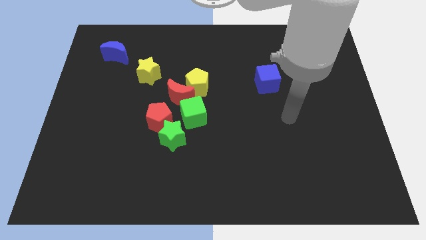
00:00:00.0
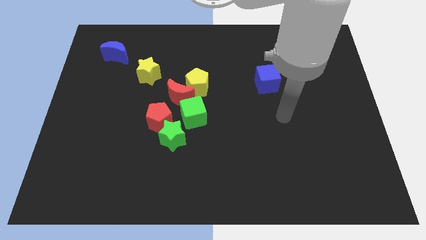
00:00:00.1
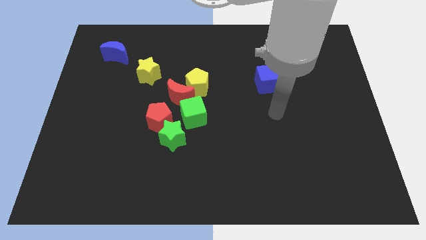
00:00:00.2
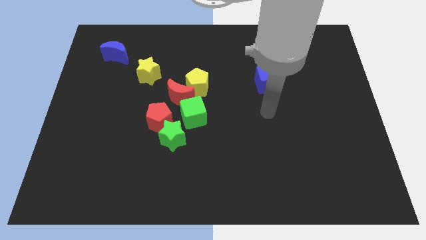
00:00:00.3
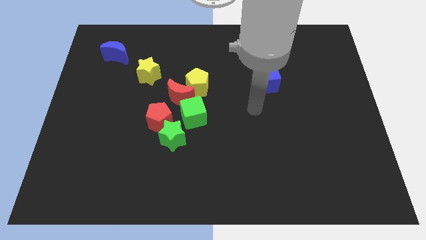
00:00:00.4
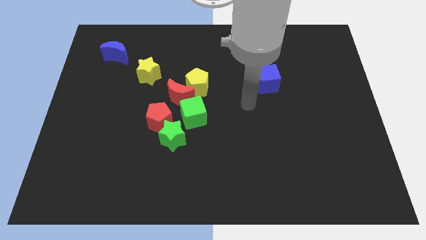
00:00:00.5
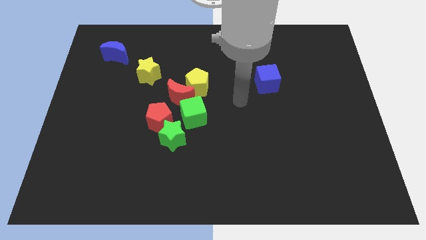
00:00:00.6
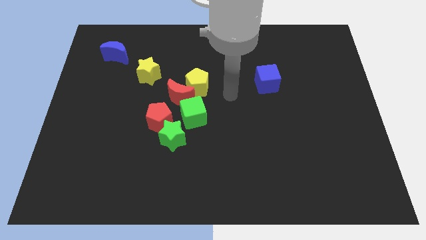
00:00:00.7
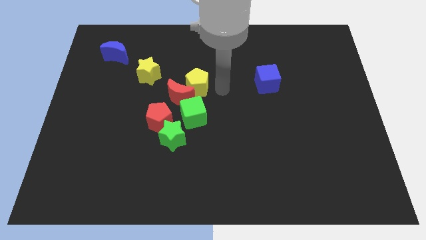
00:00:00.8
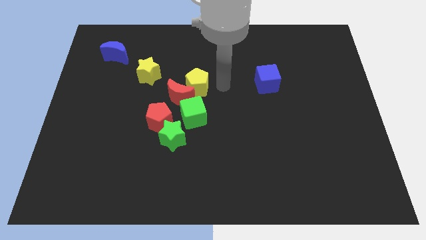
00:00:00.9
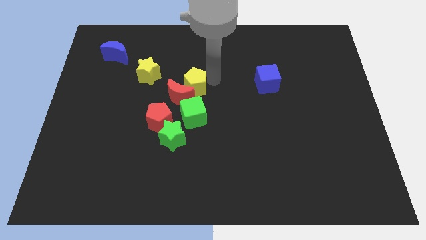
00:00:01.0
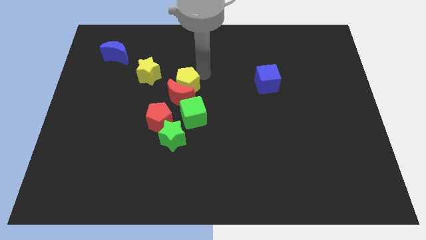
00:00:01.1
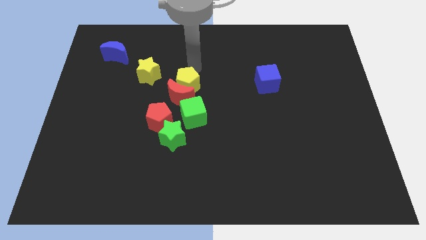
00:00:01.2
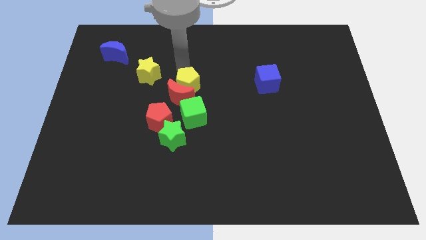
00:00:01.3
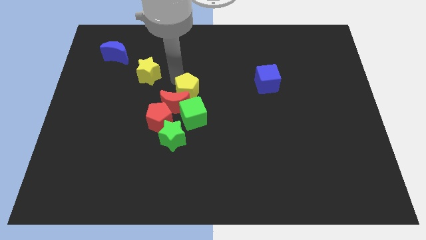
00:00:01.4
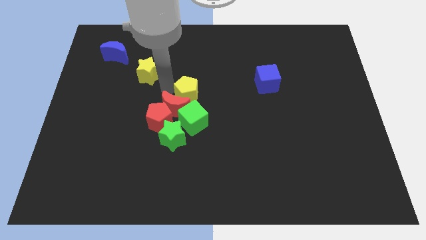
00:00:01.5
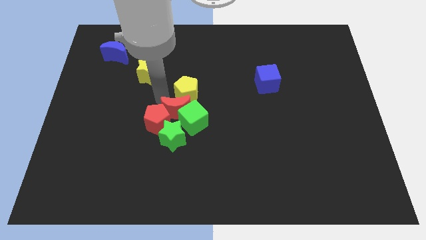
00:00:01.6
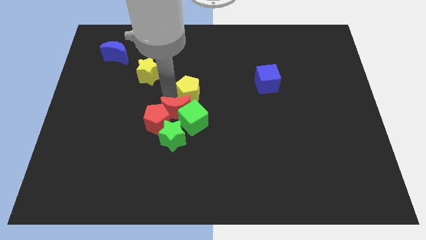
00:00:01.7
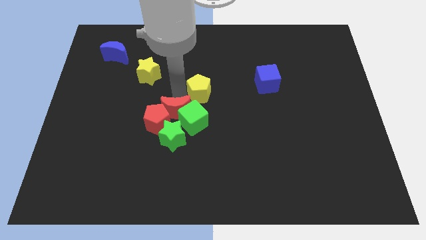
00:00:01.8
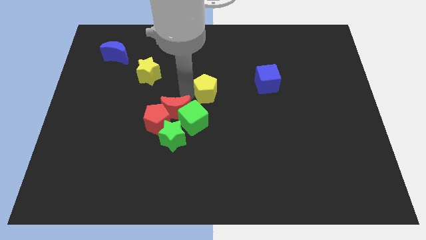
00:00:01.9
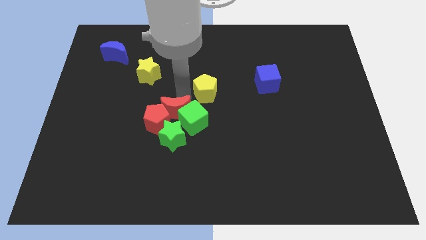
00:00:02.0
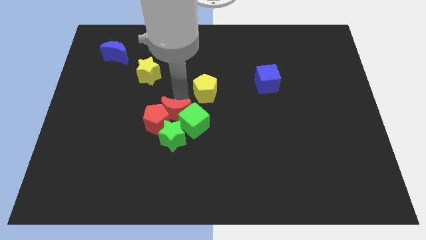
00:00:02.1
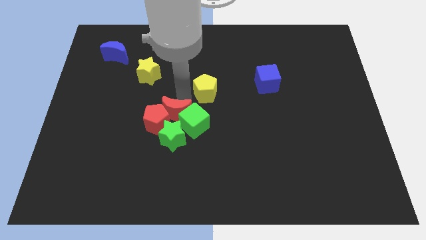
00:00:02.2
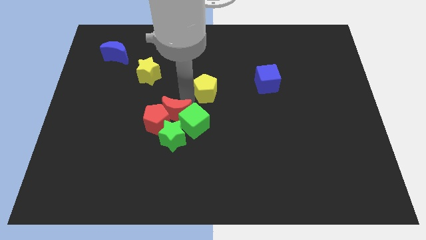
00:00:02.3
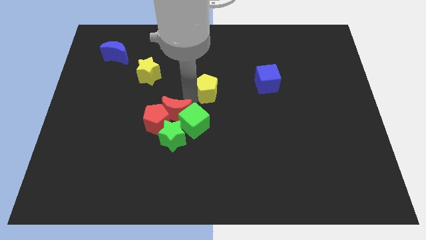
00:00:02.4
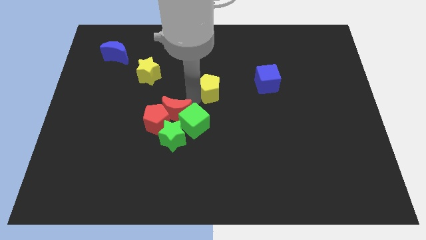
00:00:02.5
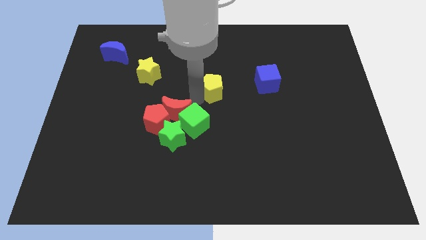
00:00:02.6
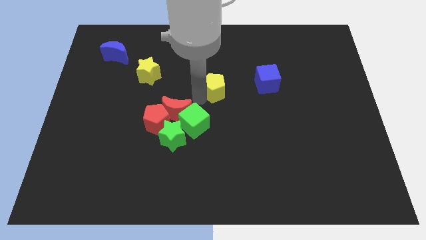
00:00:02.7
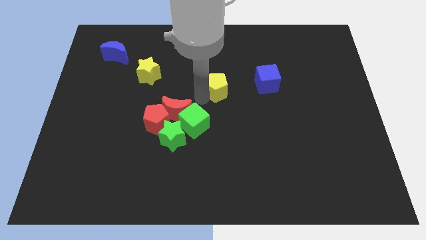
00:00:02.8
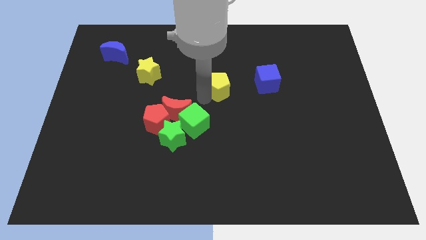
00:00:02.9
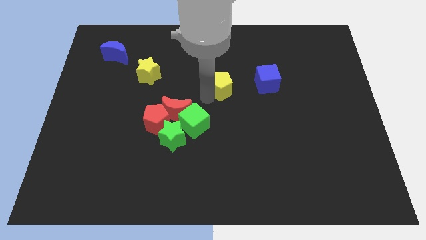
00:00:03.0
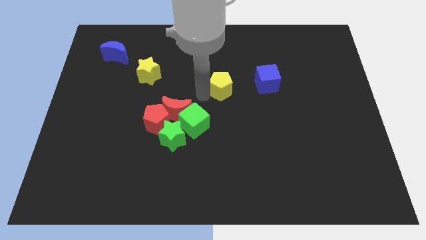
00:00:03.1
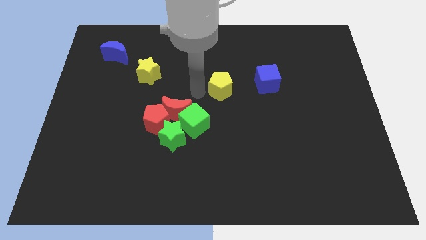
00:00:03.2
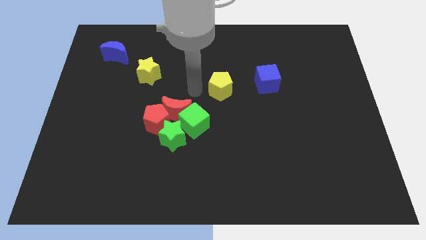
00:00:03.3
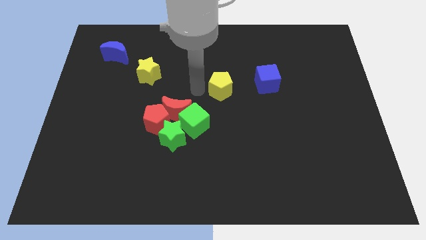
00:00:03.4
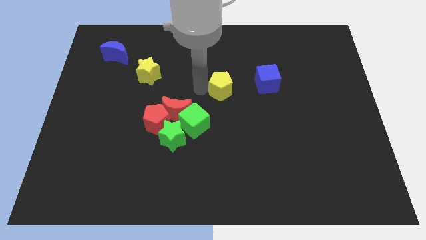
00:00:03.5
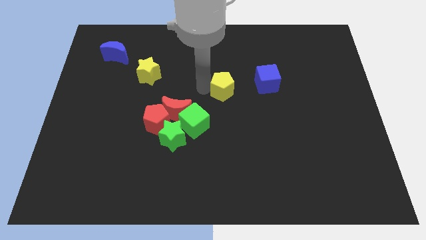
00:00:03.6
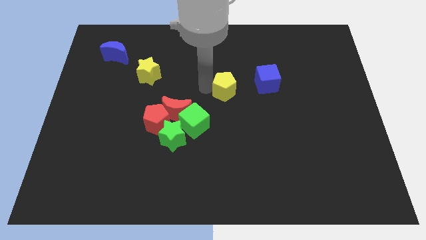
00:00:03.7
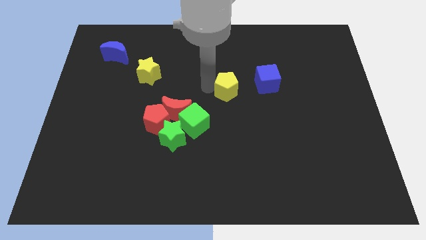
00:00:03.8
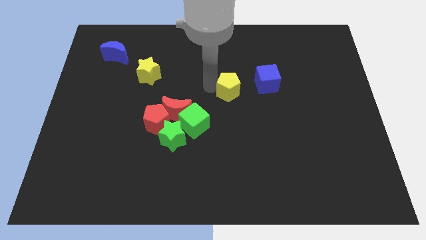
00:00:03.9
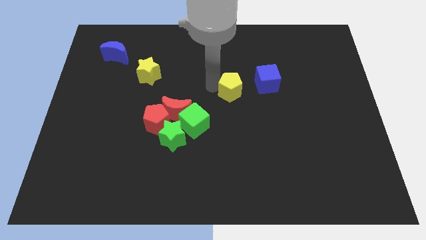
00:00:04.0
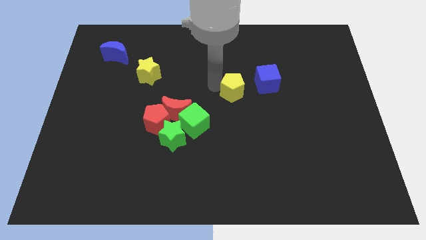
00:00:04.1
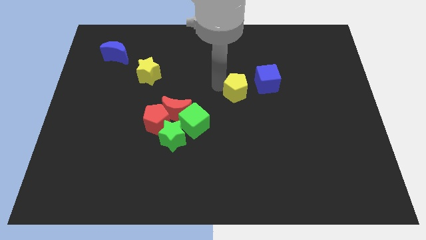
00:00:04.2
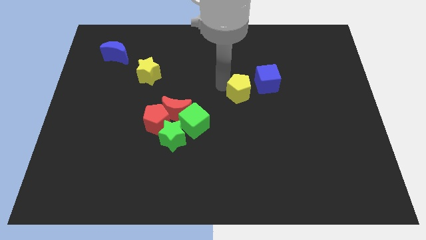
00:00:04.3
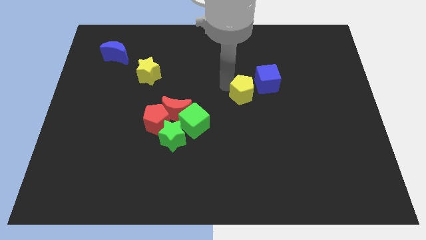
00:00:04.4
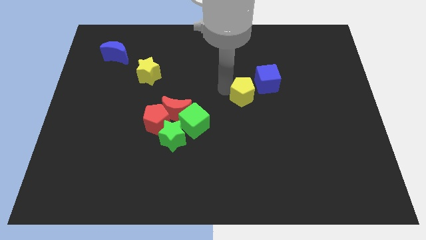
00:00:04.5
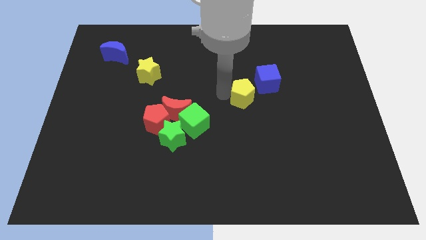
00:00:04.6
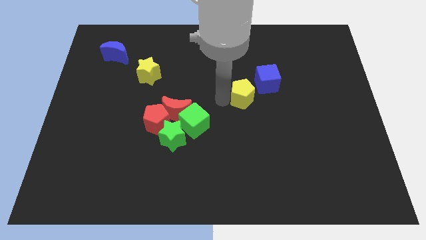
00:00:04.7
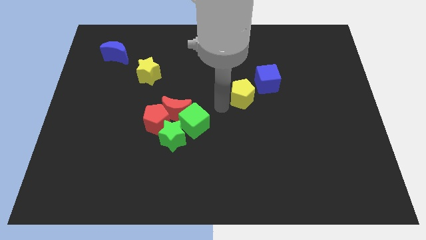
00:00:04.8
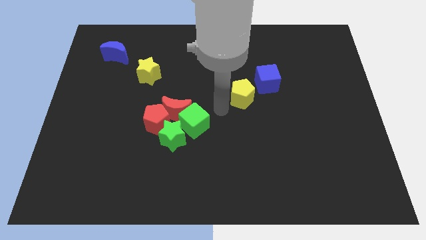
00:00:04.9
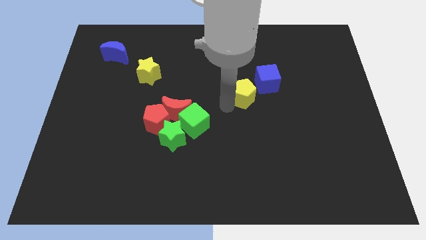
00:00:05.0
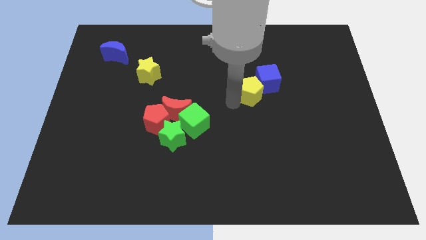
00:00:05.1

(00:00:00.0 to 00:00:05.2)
put the yellow pentagon to the blue cube

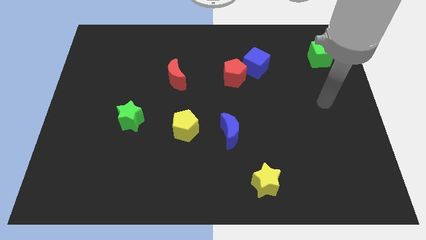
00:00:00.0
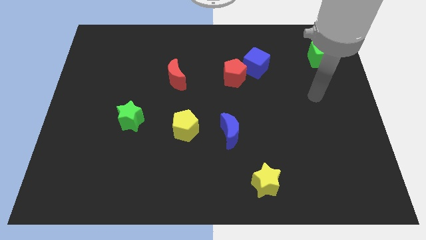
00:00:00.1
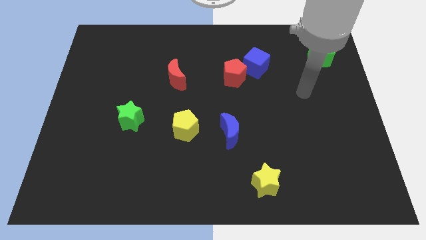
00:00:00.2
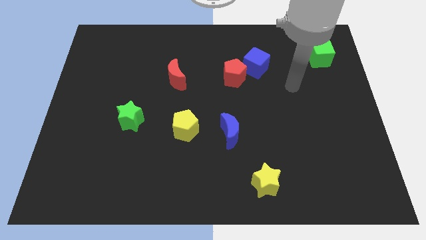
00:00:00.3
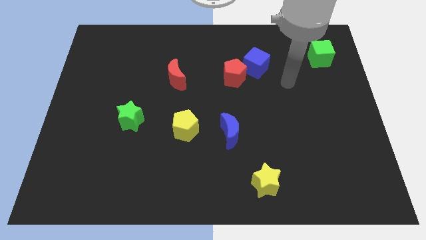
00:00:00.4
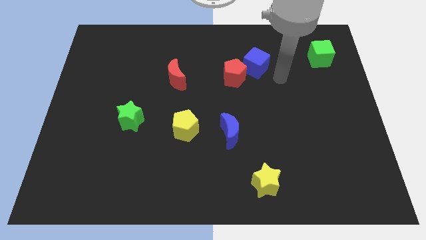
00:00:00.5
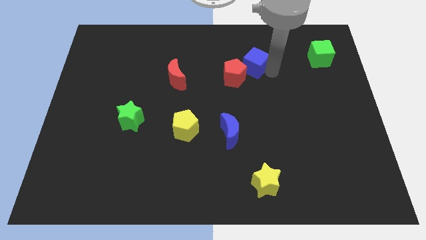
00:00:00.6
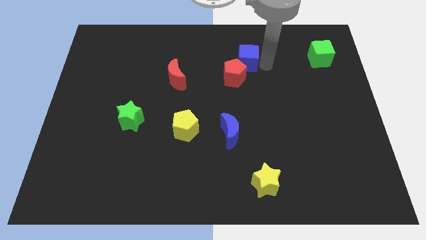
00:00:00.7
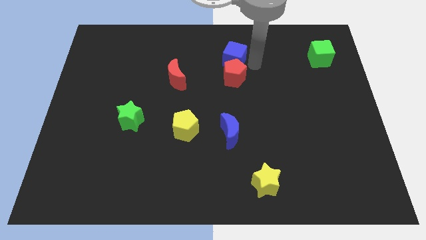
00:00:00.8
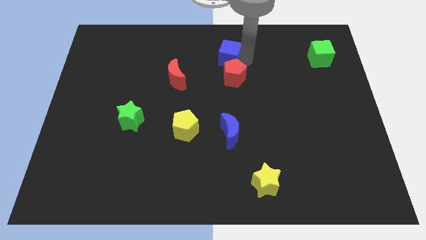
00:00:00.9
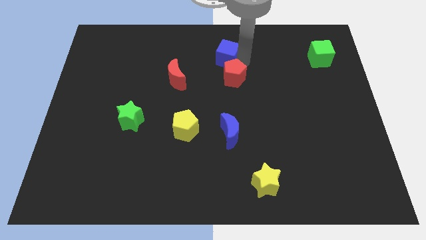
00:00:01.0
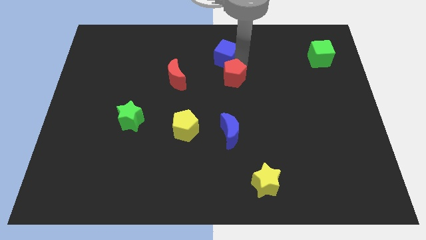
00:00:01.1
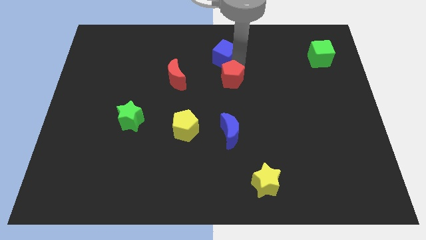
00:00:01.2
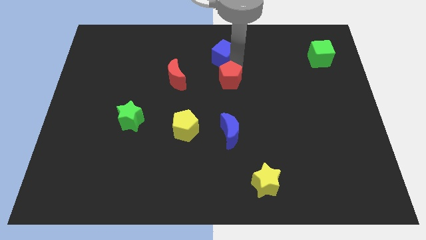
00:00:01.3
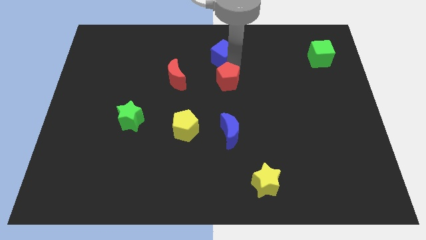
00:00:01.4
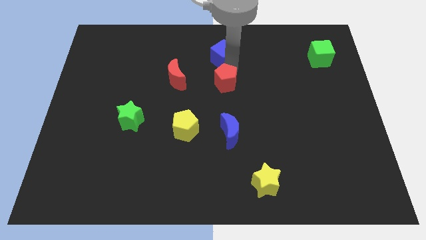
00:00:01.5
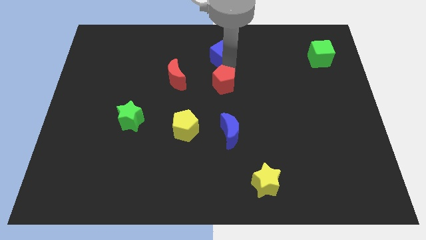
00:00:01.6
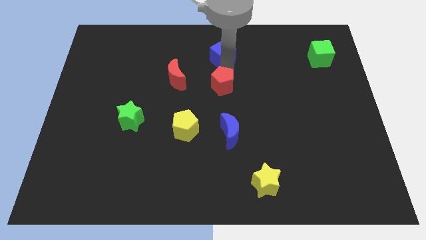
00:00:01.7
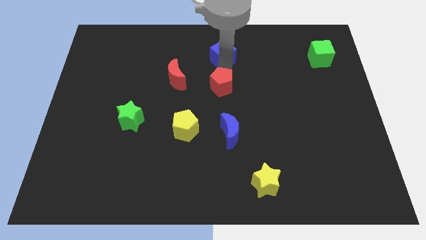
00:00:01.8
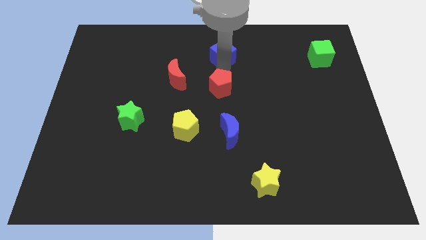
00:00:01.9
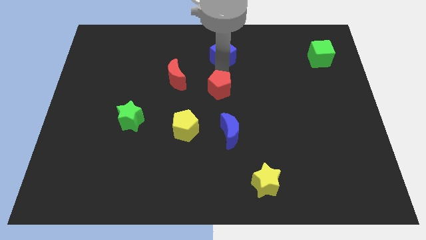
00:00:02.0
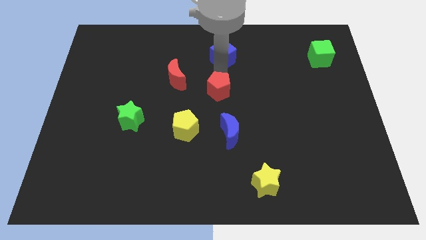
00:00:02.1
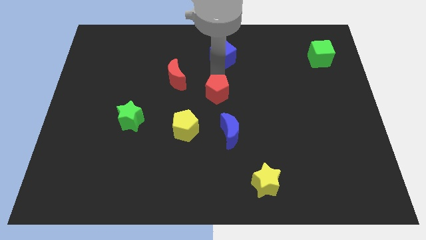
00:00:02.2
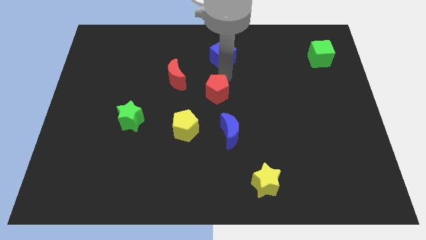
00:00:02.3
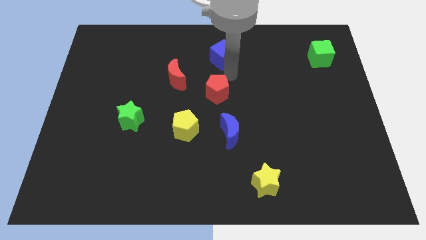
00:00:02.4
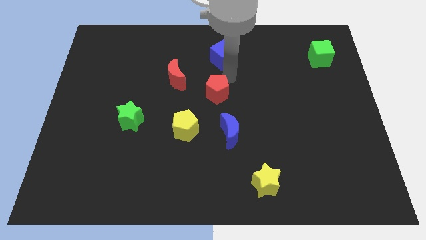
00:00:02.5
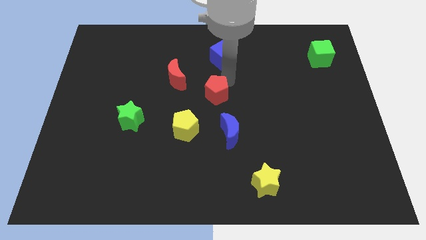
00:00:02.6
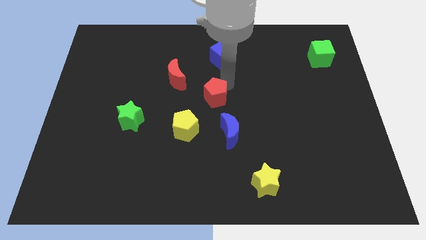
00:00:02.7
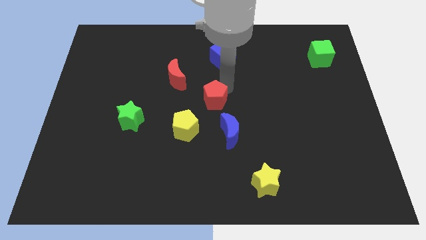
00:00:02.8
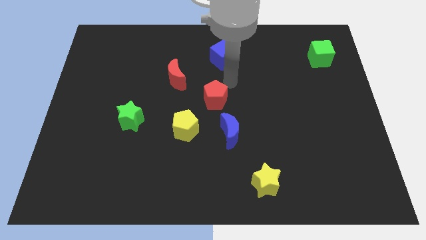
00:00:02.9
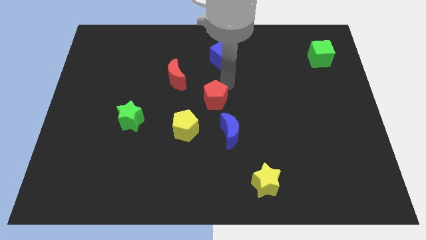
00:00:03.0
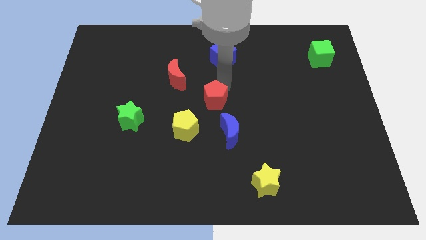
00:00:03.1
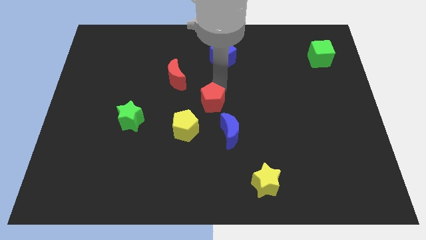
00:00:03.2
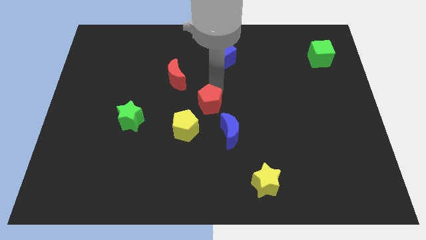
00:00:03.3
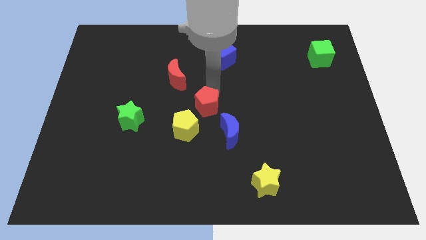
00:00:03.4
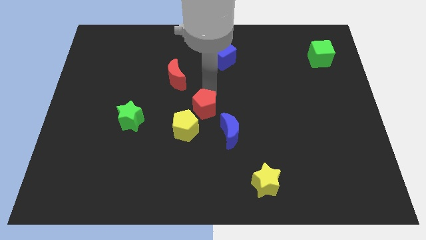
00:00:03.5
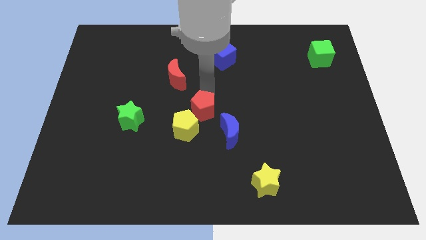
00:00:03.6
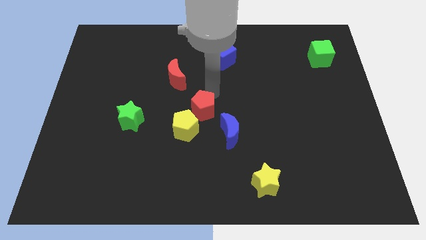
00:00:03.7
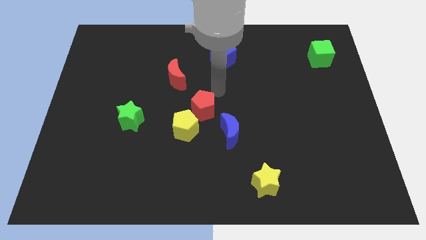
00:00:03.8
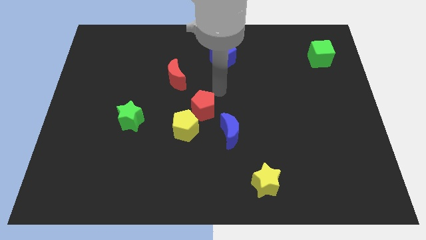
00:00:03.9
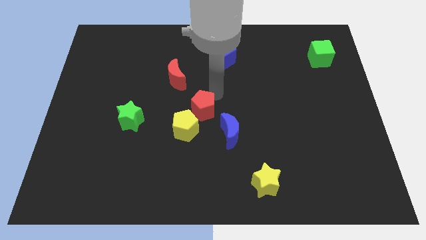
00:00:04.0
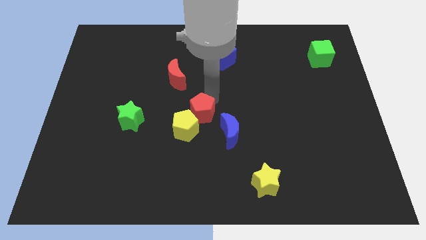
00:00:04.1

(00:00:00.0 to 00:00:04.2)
move the red pentagon close to the yellow pentagon
